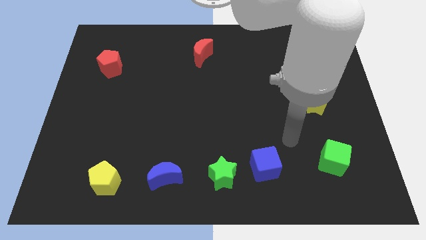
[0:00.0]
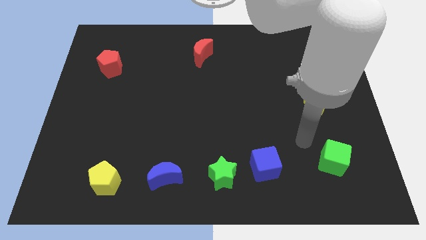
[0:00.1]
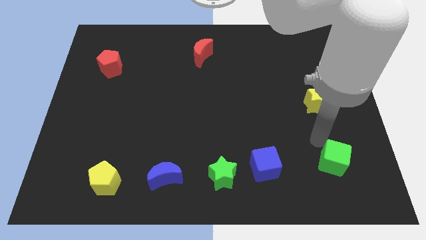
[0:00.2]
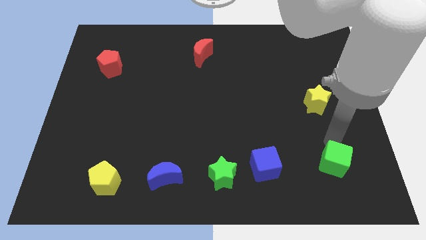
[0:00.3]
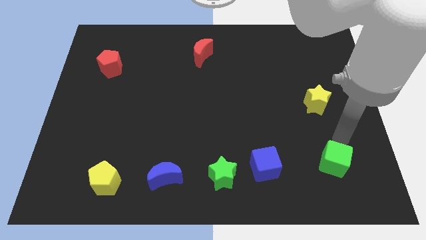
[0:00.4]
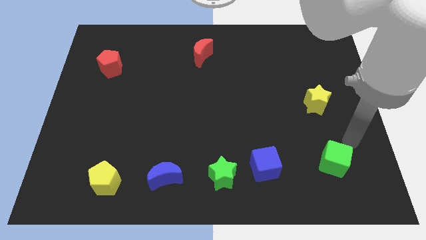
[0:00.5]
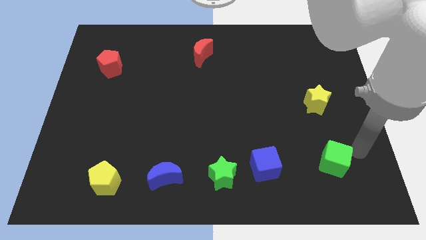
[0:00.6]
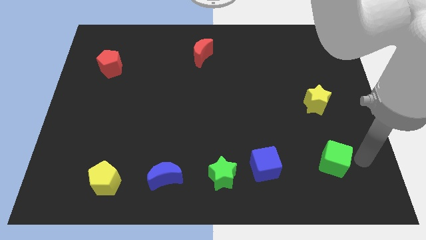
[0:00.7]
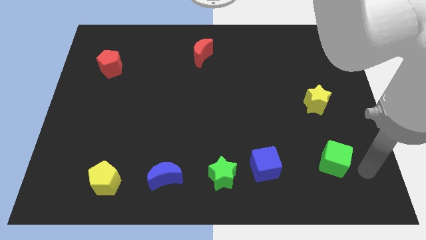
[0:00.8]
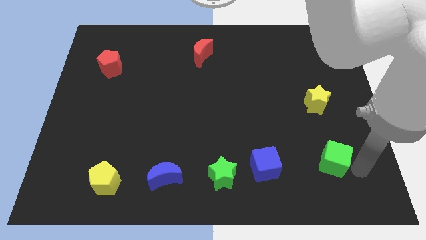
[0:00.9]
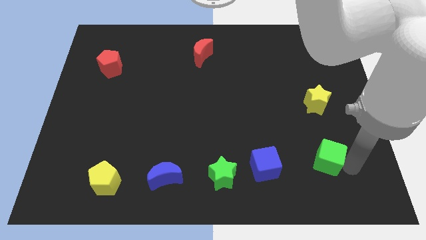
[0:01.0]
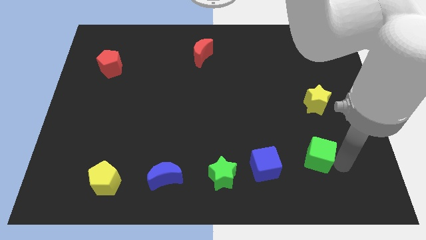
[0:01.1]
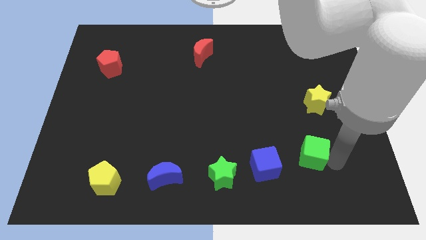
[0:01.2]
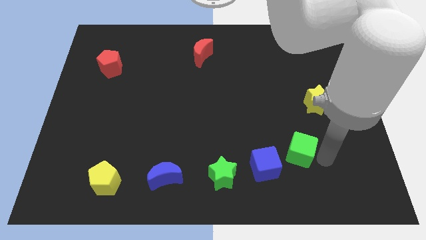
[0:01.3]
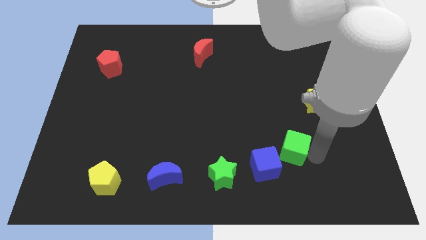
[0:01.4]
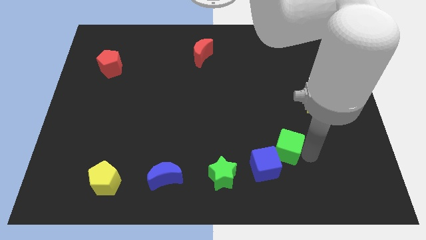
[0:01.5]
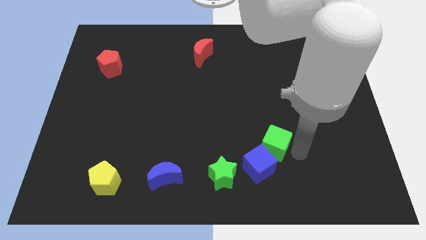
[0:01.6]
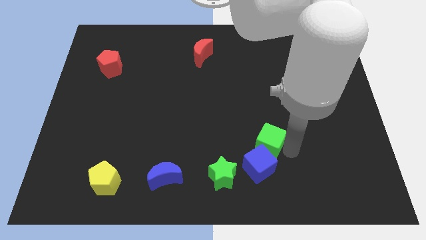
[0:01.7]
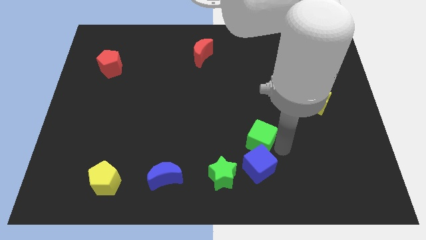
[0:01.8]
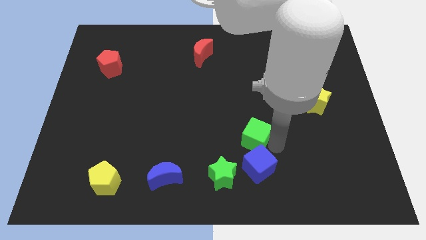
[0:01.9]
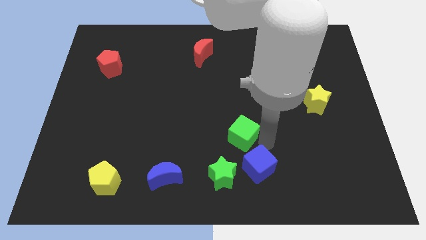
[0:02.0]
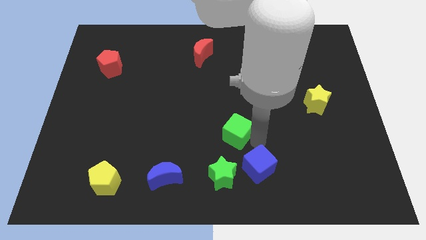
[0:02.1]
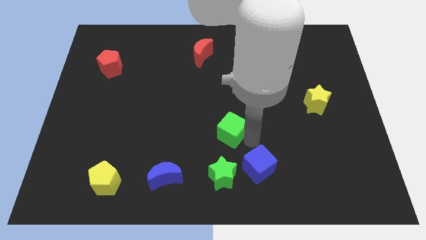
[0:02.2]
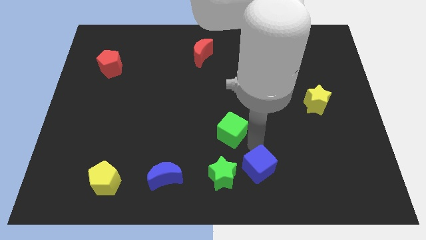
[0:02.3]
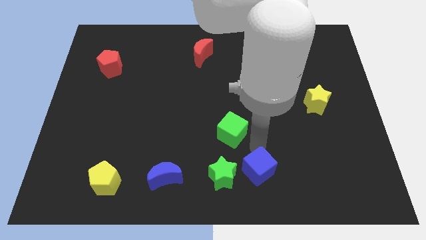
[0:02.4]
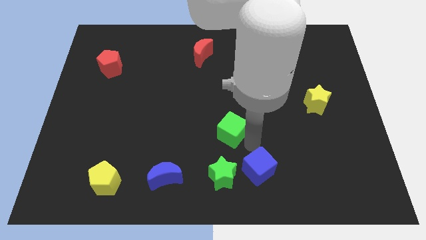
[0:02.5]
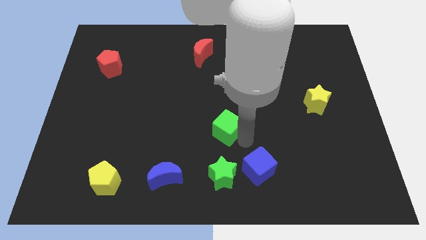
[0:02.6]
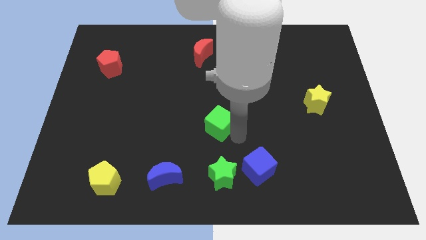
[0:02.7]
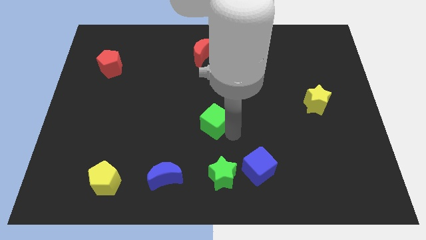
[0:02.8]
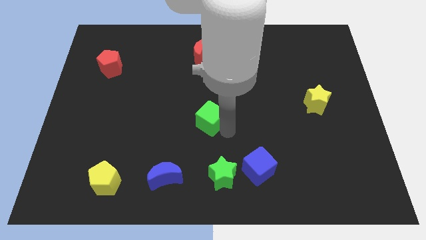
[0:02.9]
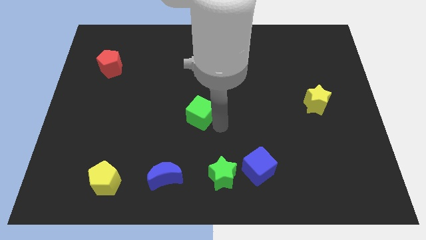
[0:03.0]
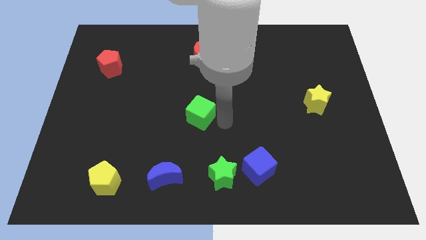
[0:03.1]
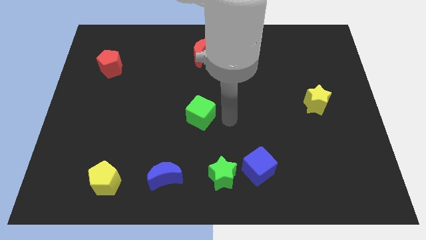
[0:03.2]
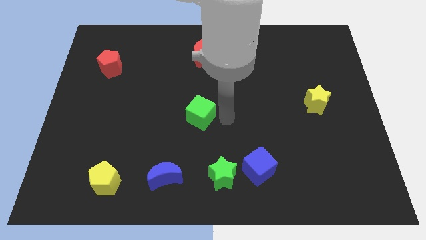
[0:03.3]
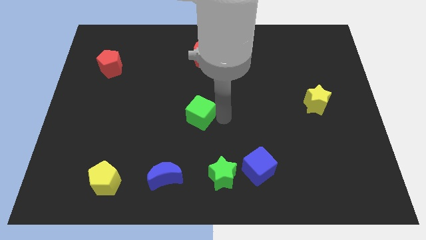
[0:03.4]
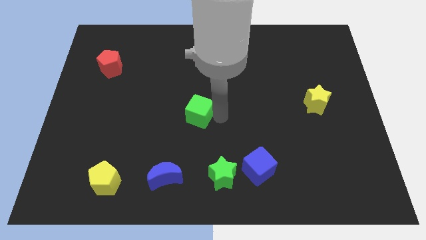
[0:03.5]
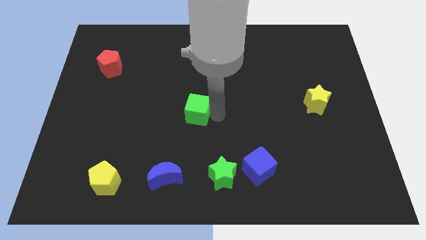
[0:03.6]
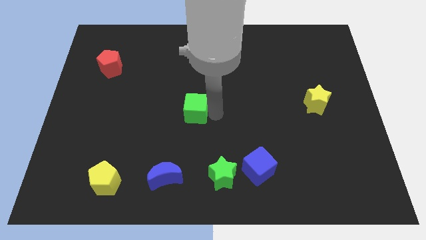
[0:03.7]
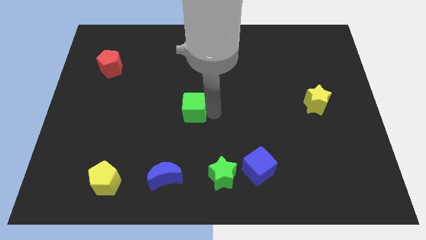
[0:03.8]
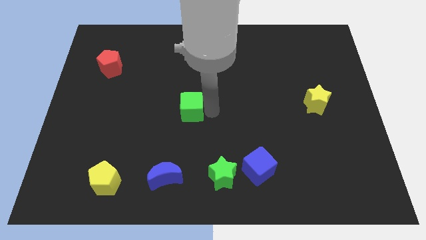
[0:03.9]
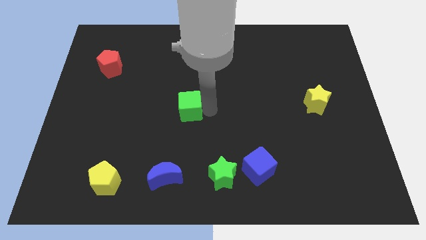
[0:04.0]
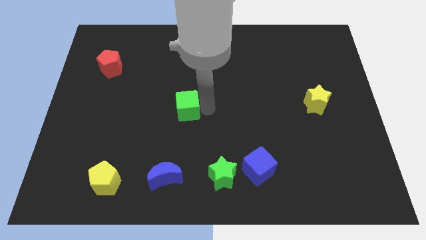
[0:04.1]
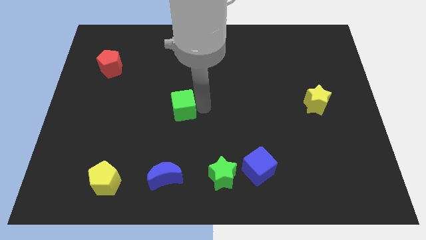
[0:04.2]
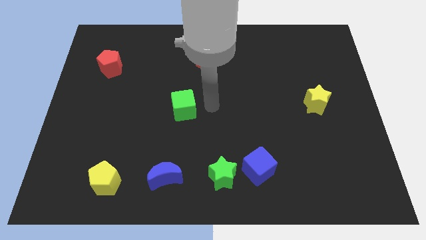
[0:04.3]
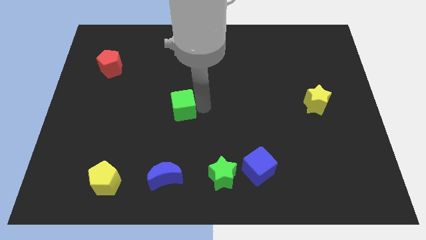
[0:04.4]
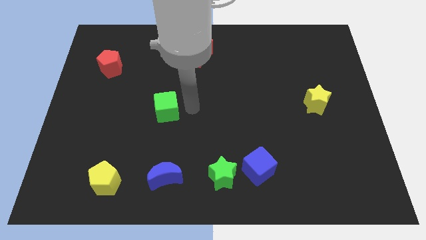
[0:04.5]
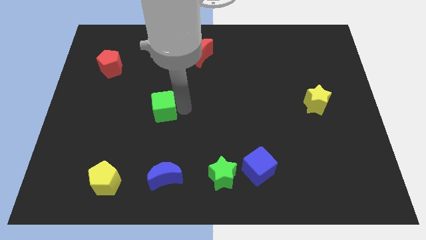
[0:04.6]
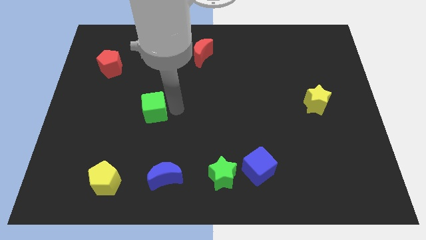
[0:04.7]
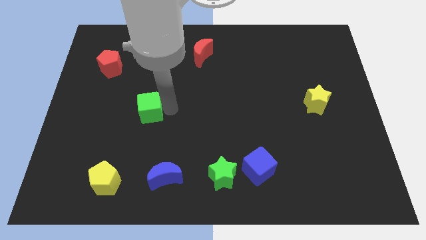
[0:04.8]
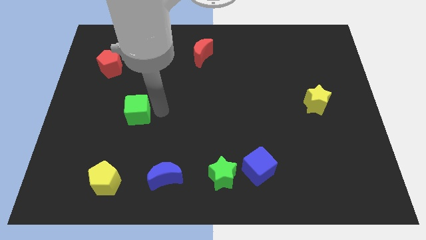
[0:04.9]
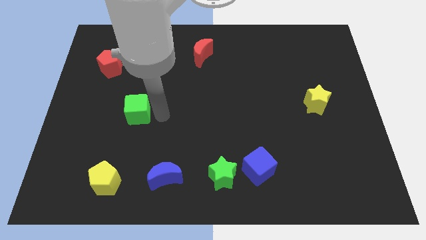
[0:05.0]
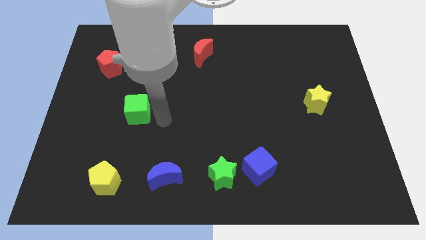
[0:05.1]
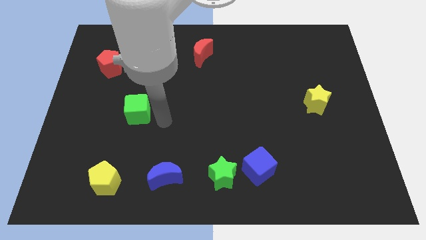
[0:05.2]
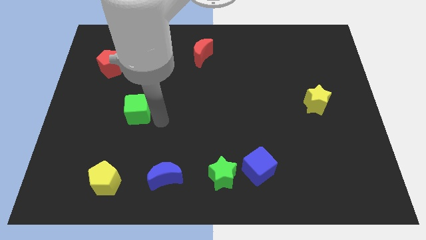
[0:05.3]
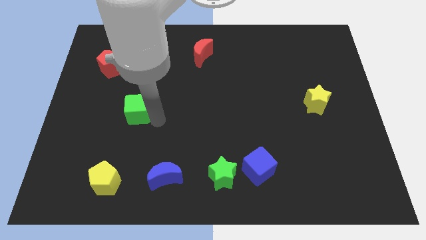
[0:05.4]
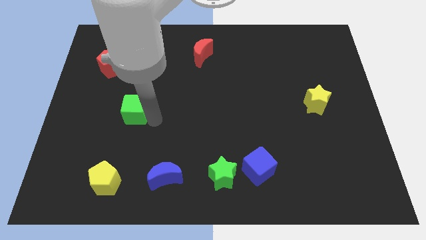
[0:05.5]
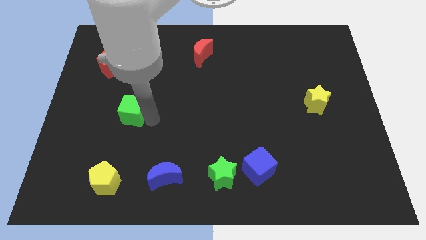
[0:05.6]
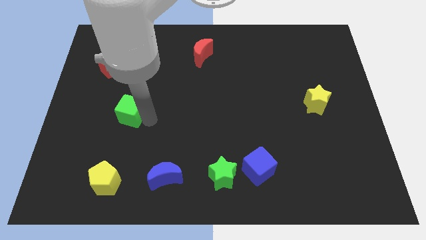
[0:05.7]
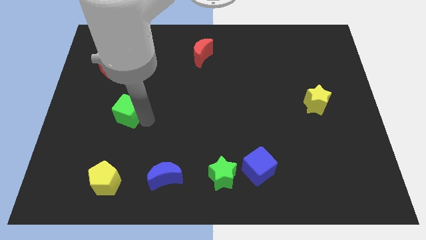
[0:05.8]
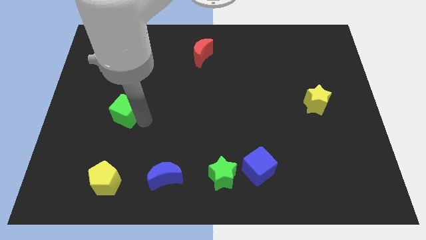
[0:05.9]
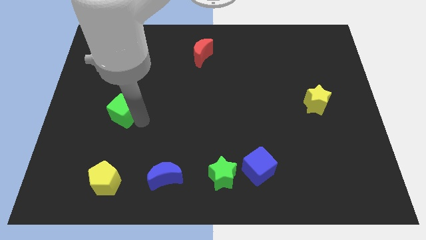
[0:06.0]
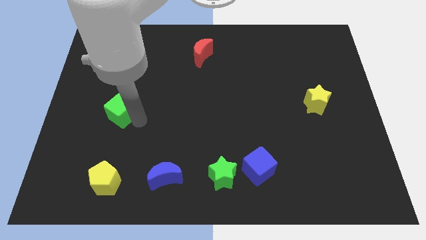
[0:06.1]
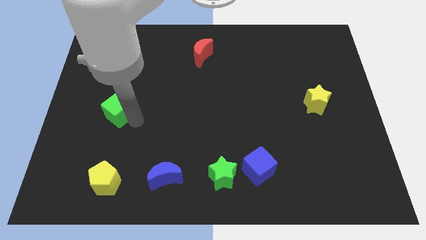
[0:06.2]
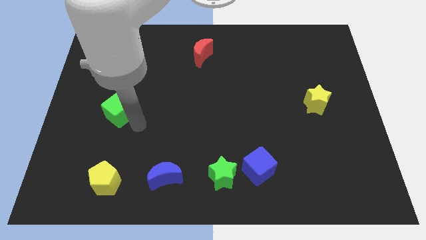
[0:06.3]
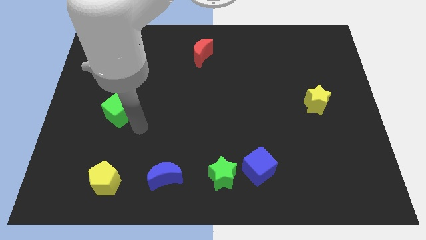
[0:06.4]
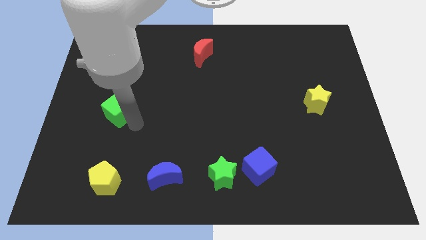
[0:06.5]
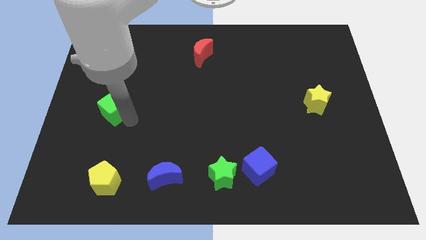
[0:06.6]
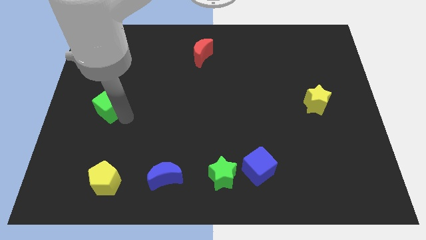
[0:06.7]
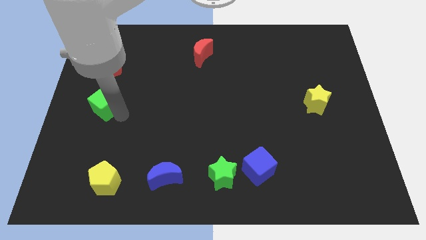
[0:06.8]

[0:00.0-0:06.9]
move the green cube to the center left

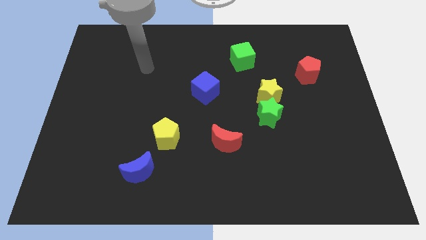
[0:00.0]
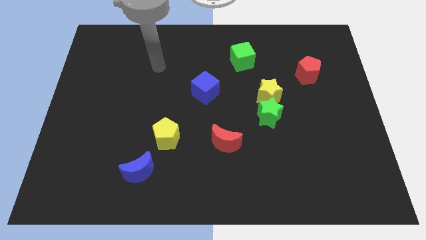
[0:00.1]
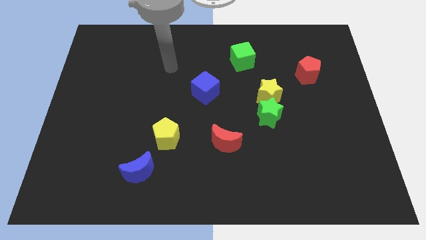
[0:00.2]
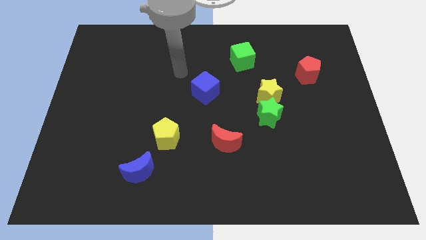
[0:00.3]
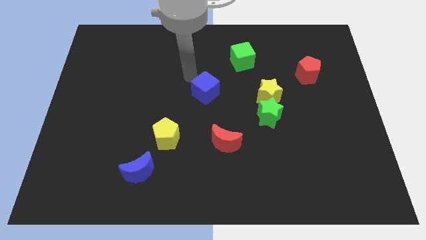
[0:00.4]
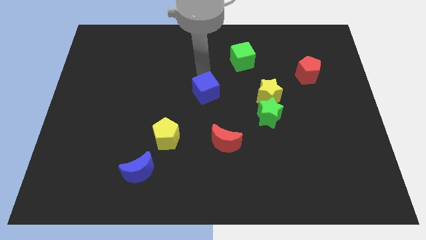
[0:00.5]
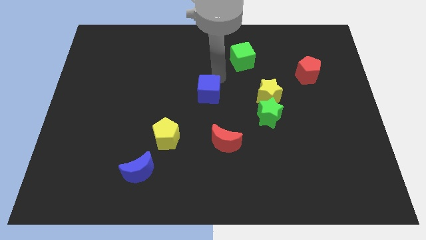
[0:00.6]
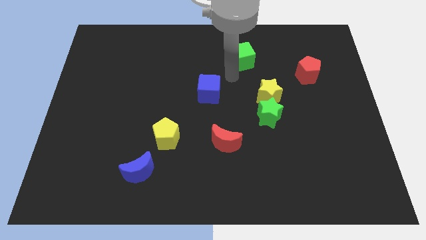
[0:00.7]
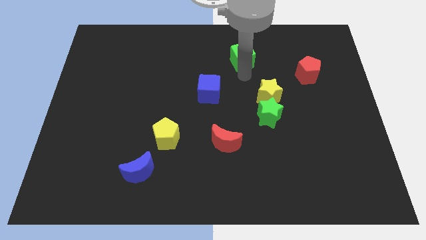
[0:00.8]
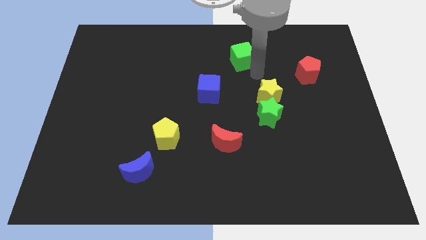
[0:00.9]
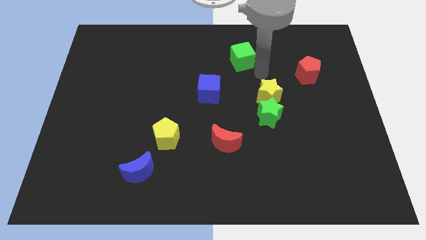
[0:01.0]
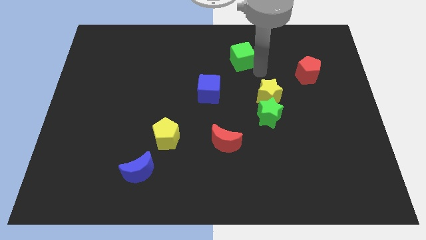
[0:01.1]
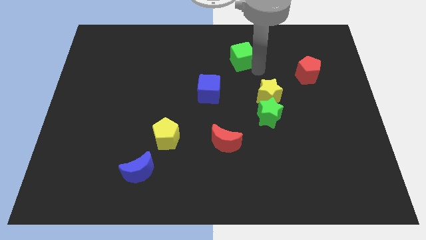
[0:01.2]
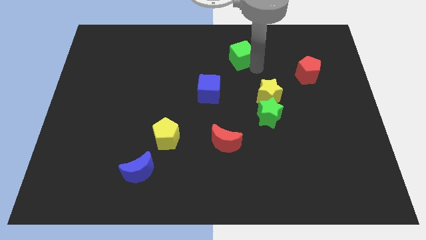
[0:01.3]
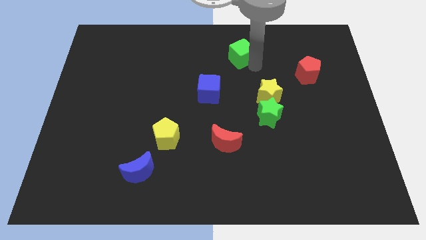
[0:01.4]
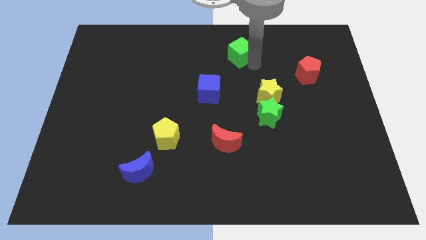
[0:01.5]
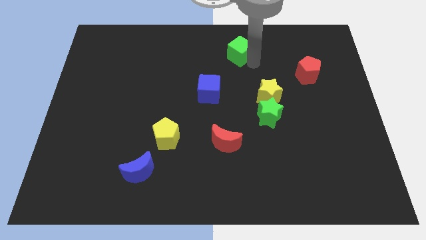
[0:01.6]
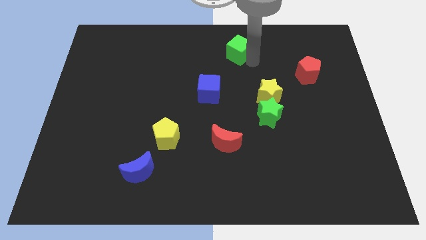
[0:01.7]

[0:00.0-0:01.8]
push the green cube to the top side
